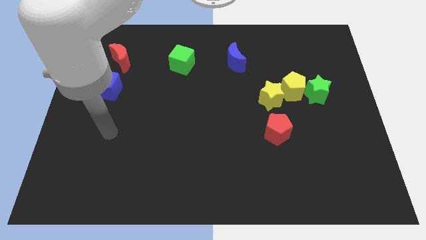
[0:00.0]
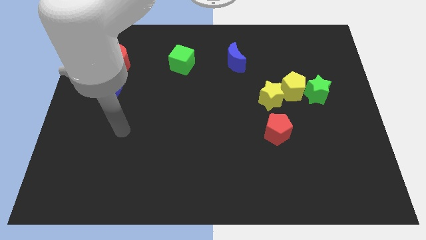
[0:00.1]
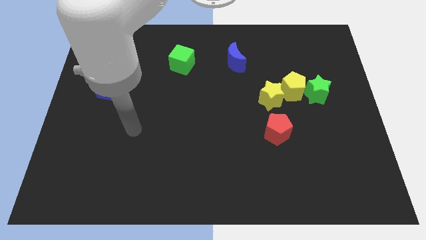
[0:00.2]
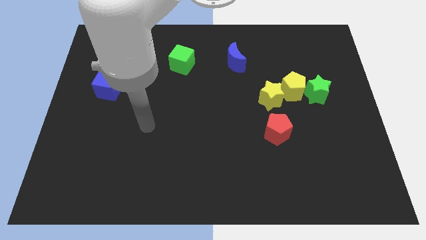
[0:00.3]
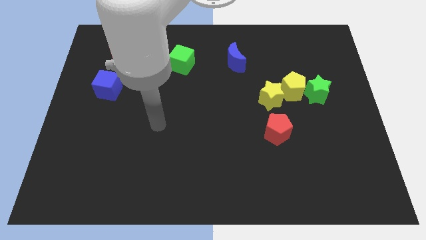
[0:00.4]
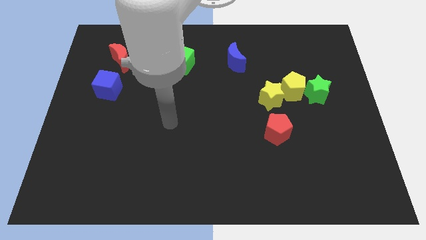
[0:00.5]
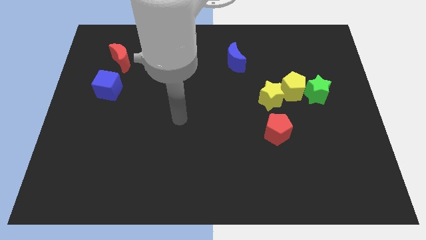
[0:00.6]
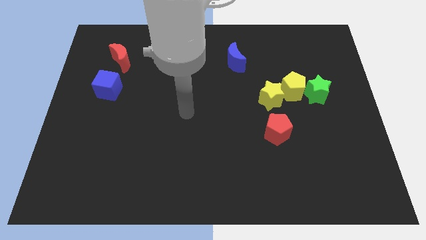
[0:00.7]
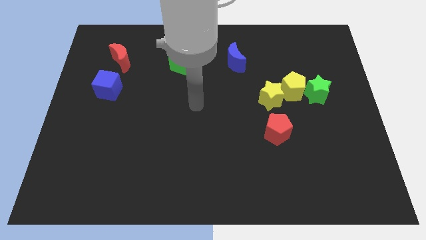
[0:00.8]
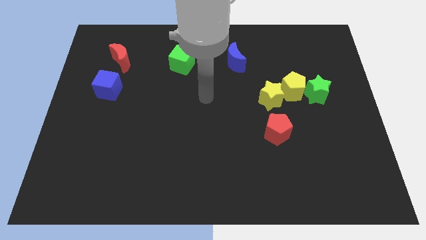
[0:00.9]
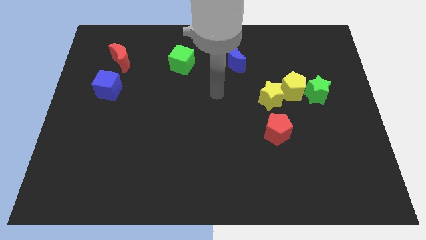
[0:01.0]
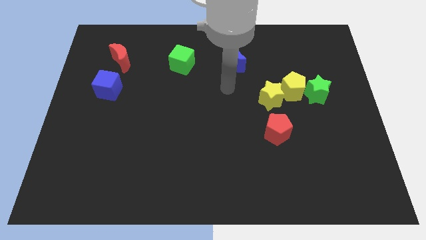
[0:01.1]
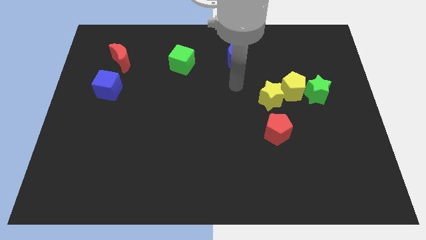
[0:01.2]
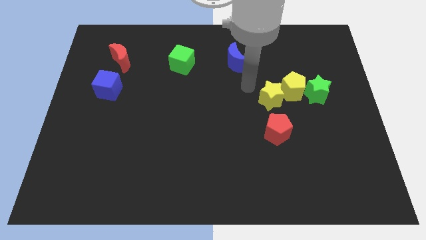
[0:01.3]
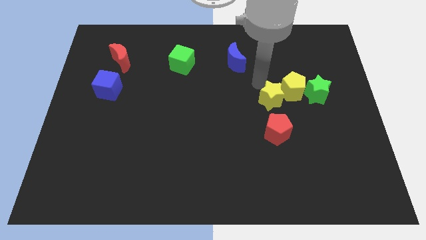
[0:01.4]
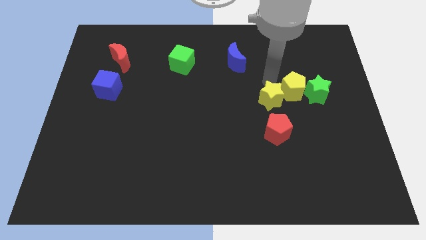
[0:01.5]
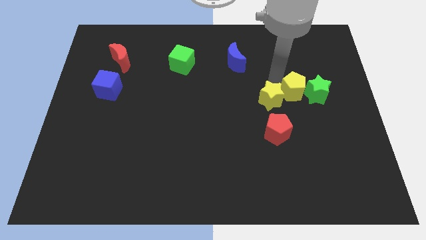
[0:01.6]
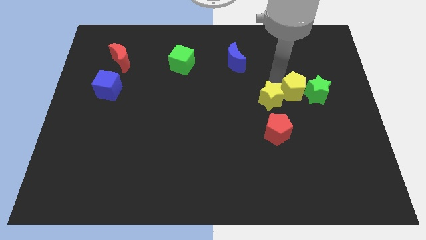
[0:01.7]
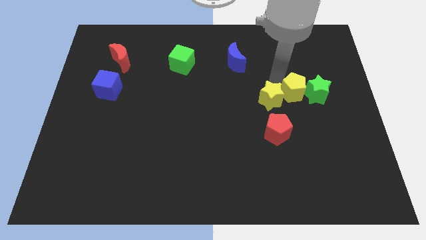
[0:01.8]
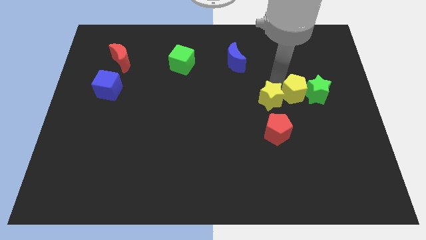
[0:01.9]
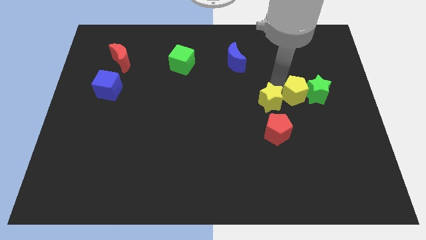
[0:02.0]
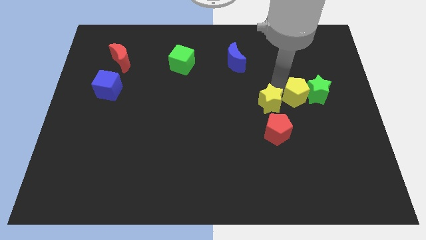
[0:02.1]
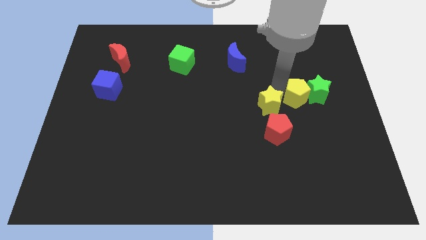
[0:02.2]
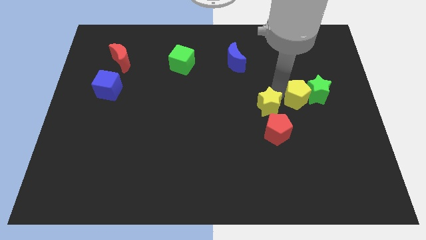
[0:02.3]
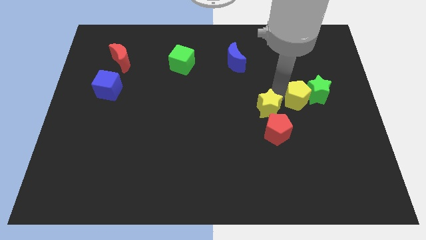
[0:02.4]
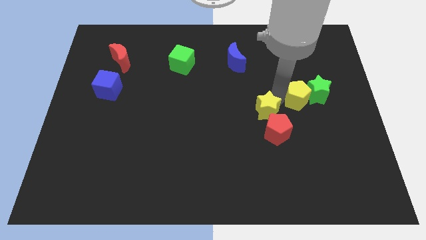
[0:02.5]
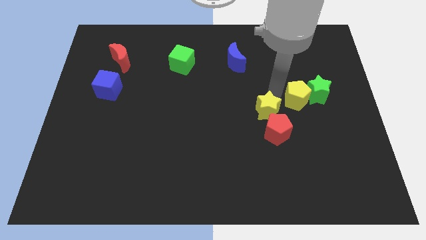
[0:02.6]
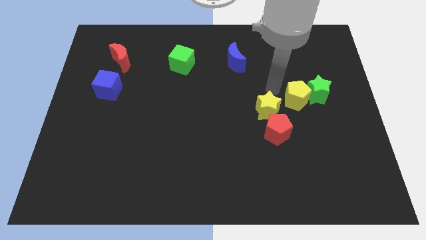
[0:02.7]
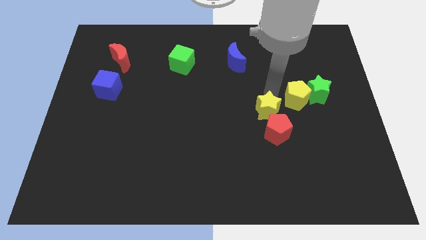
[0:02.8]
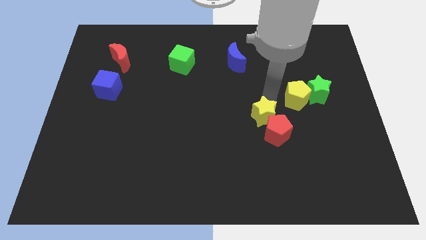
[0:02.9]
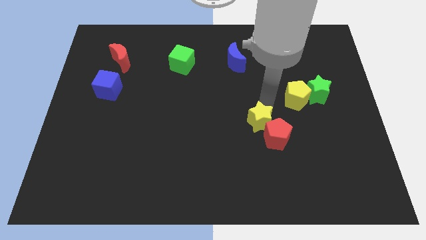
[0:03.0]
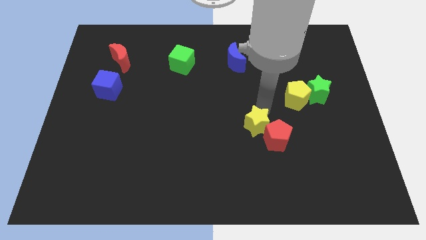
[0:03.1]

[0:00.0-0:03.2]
push the yellow star slightly downwards

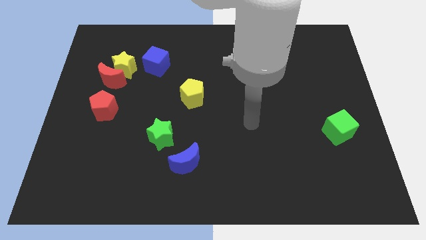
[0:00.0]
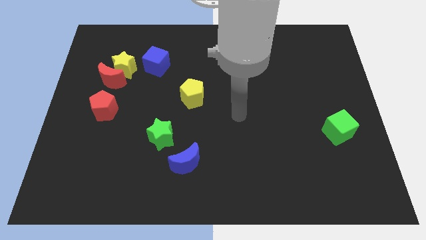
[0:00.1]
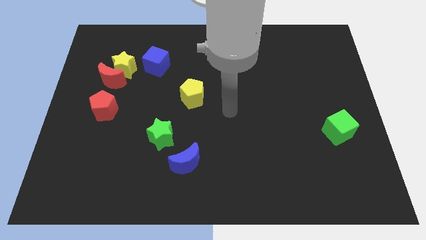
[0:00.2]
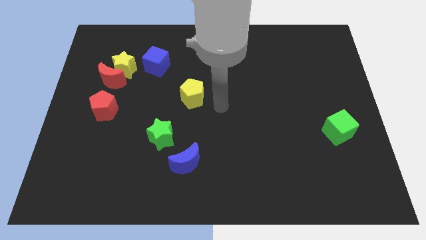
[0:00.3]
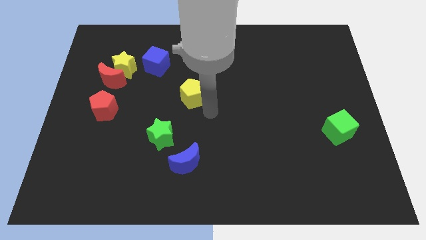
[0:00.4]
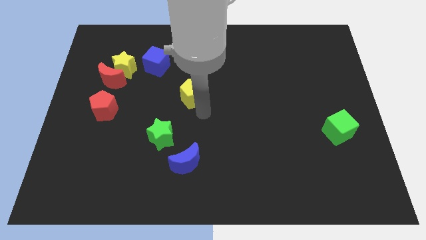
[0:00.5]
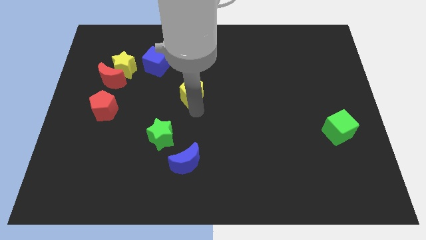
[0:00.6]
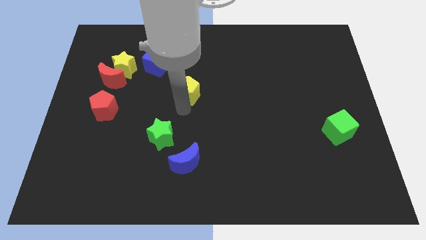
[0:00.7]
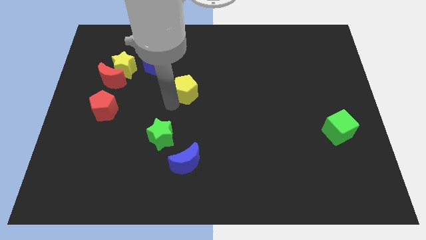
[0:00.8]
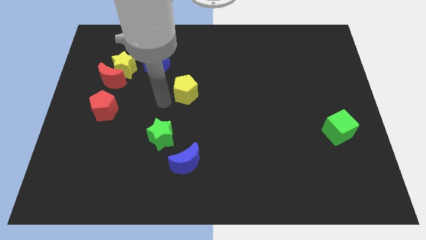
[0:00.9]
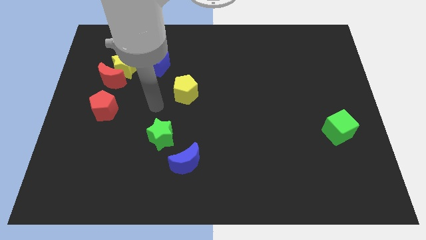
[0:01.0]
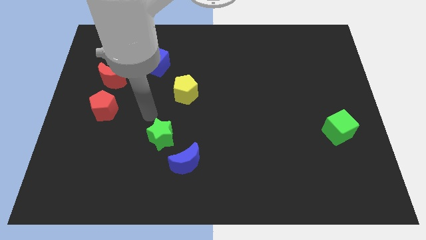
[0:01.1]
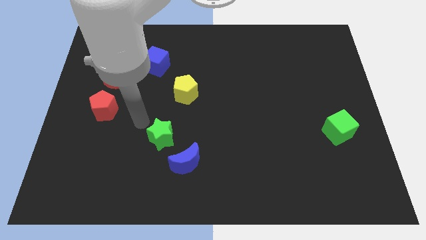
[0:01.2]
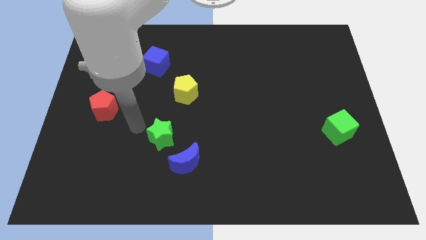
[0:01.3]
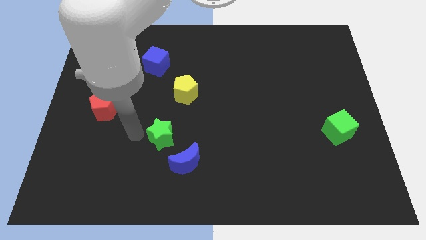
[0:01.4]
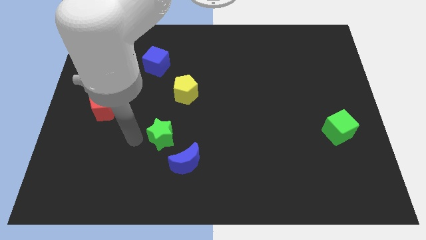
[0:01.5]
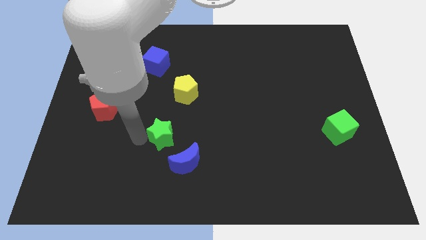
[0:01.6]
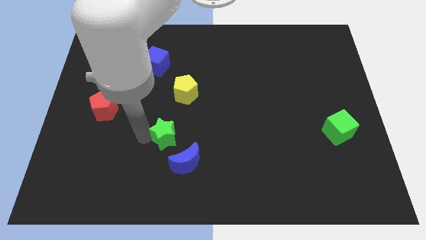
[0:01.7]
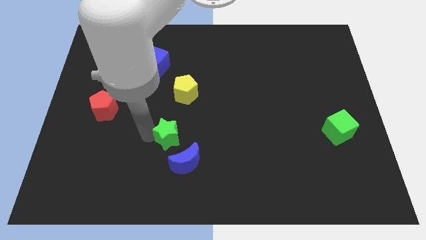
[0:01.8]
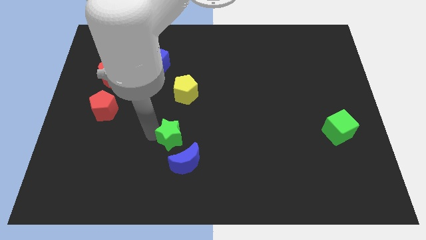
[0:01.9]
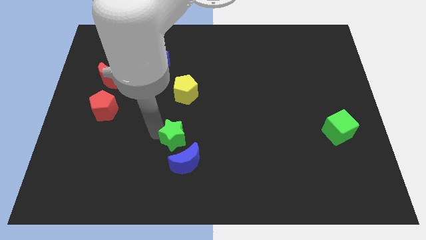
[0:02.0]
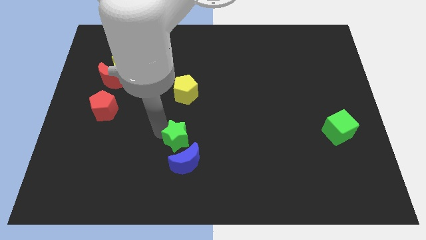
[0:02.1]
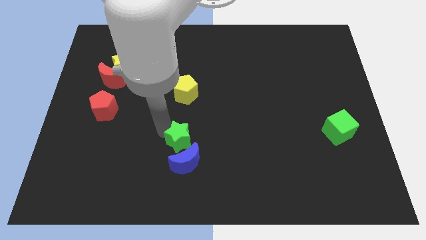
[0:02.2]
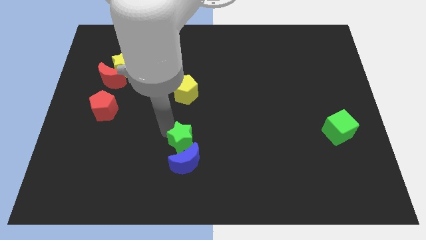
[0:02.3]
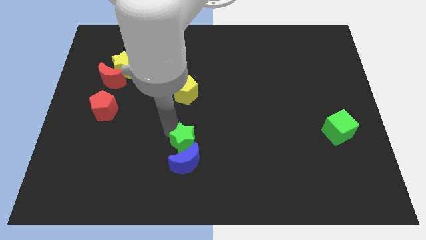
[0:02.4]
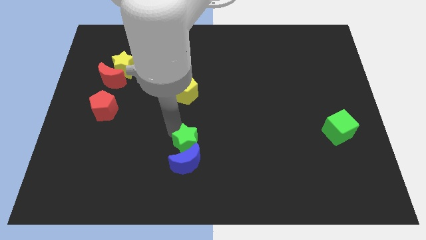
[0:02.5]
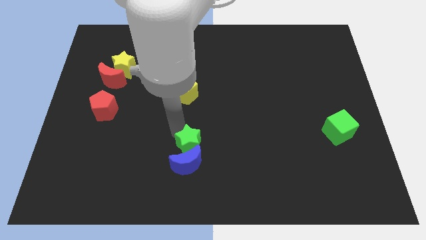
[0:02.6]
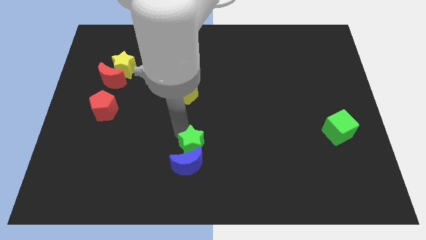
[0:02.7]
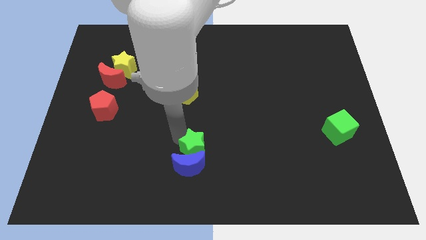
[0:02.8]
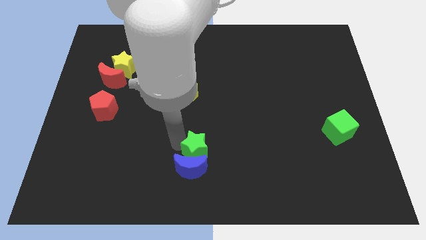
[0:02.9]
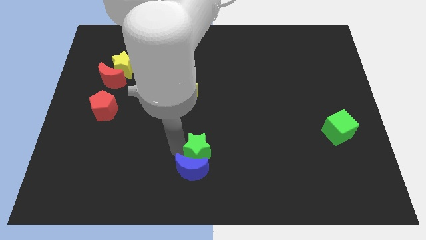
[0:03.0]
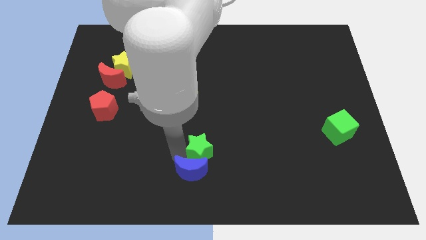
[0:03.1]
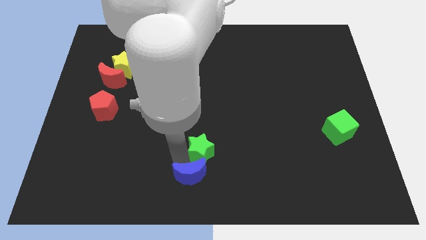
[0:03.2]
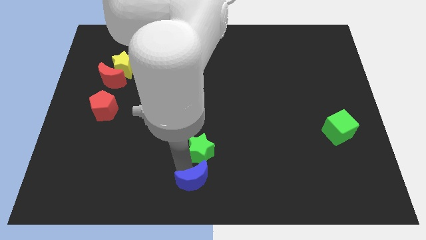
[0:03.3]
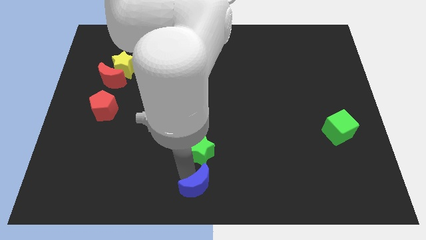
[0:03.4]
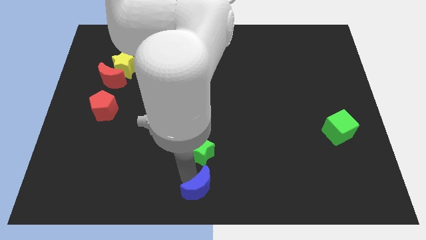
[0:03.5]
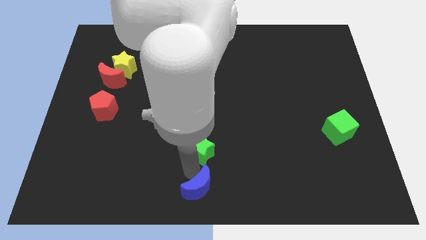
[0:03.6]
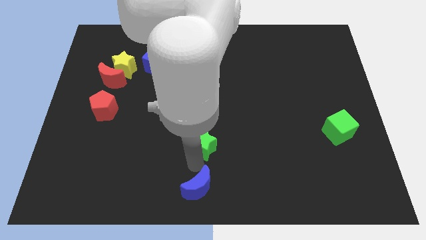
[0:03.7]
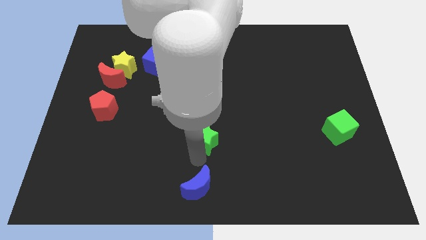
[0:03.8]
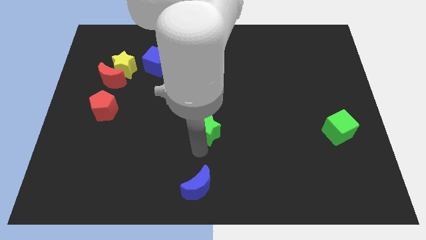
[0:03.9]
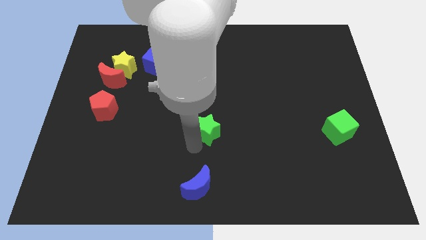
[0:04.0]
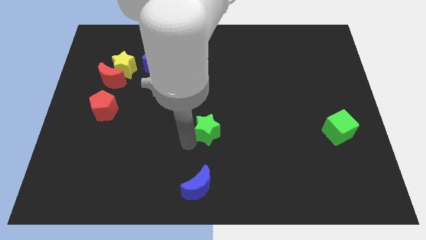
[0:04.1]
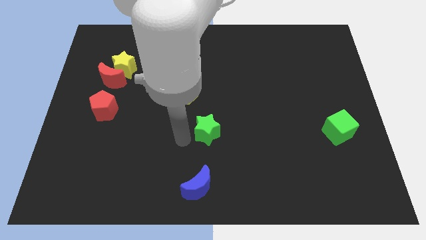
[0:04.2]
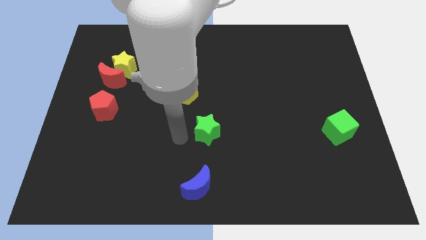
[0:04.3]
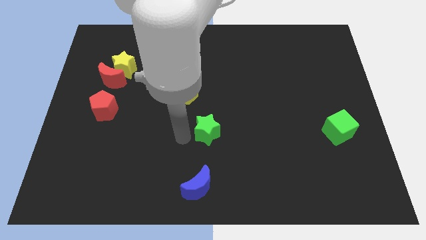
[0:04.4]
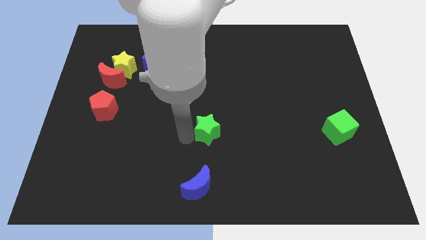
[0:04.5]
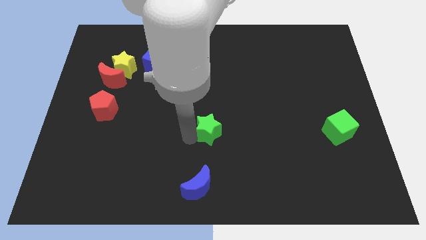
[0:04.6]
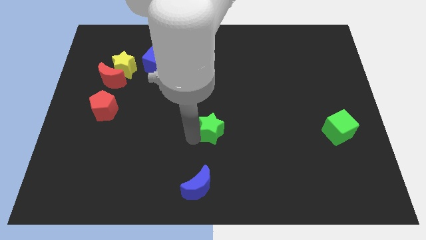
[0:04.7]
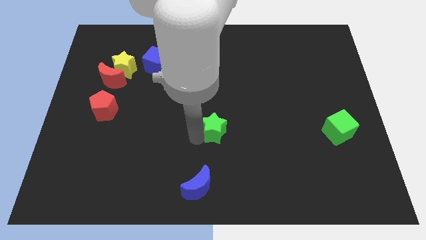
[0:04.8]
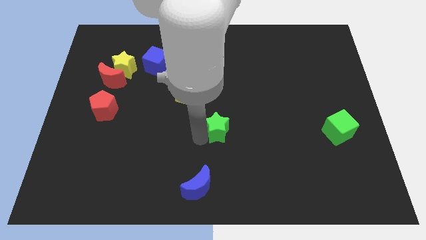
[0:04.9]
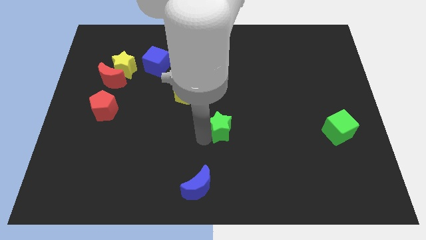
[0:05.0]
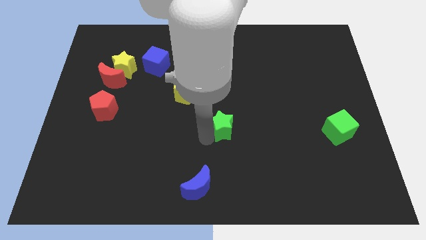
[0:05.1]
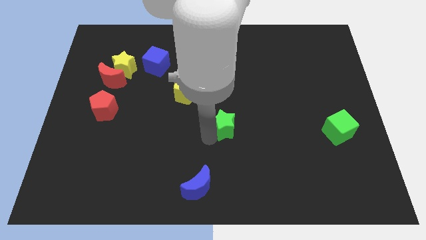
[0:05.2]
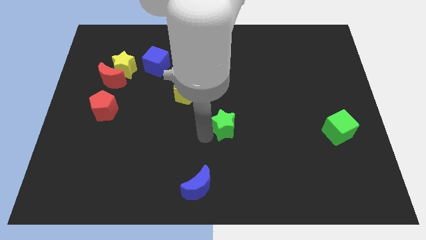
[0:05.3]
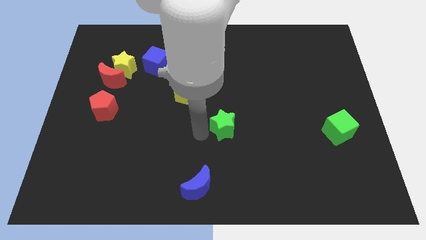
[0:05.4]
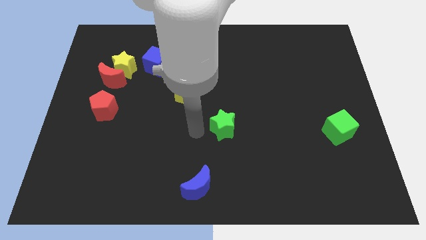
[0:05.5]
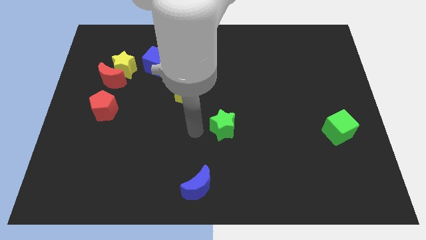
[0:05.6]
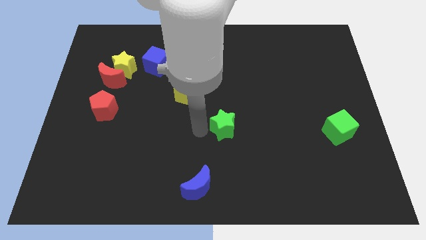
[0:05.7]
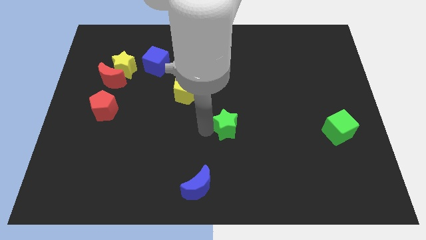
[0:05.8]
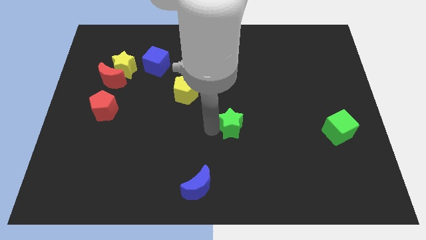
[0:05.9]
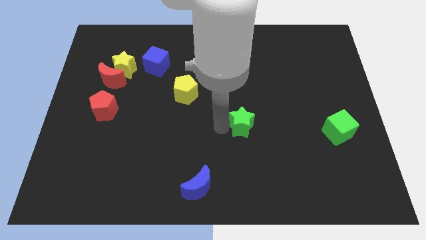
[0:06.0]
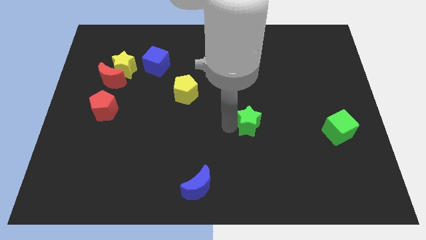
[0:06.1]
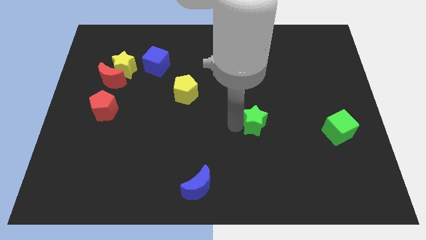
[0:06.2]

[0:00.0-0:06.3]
push the green star right
